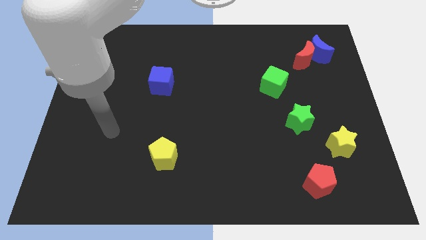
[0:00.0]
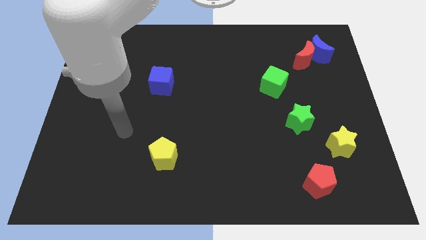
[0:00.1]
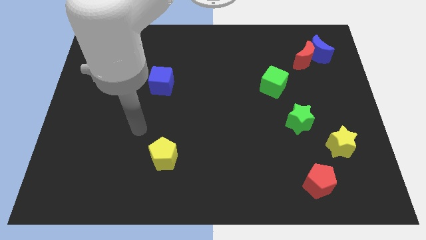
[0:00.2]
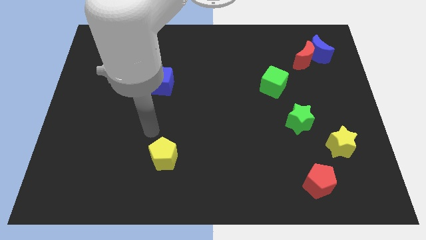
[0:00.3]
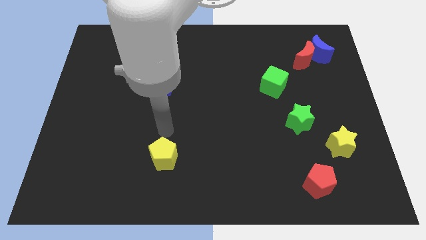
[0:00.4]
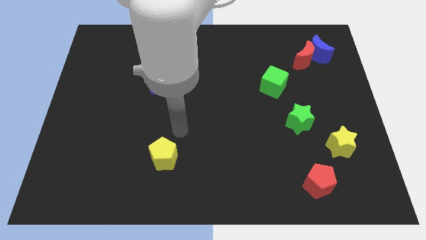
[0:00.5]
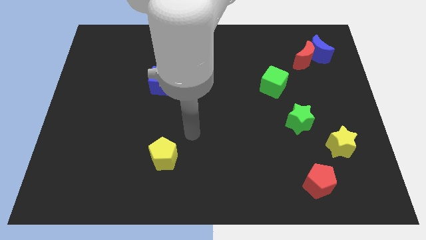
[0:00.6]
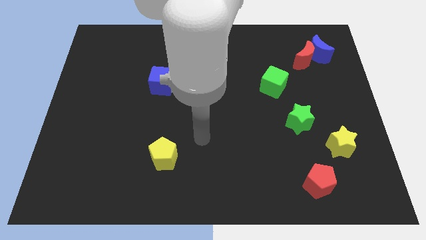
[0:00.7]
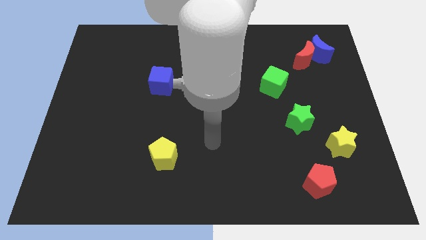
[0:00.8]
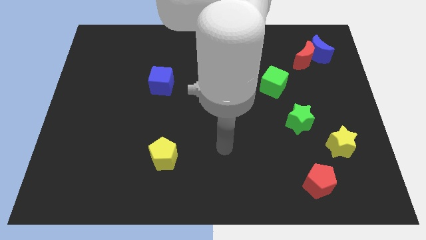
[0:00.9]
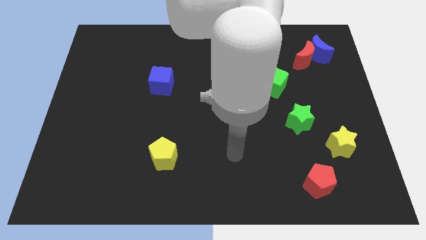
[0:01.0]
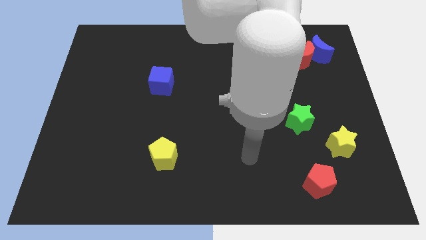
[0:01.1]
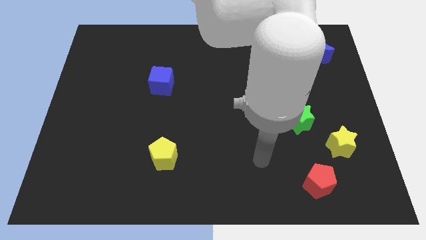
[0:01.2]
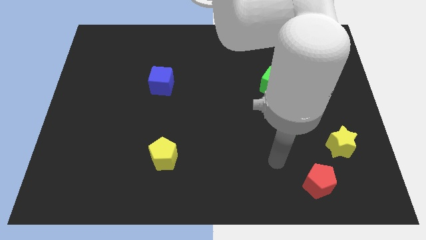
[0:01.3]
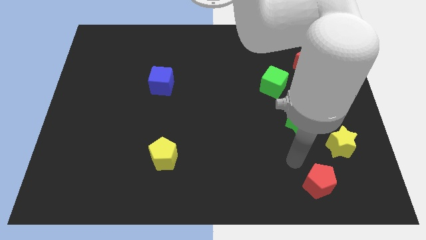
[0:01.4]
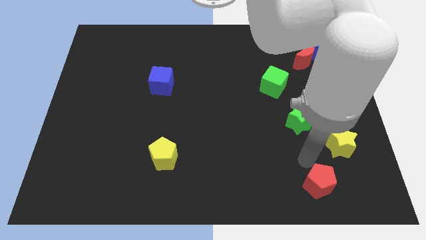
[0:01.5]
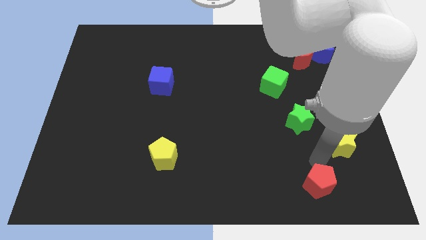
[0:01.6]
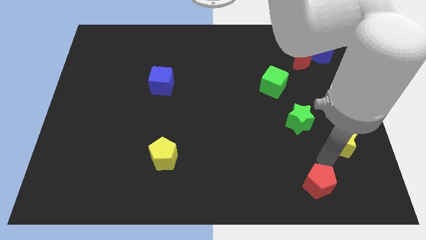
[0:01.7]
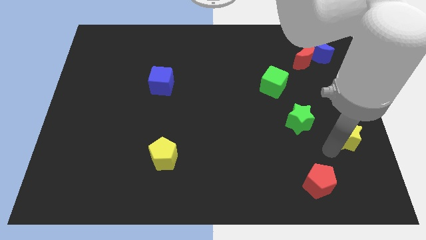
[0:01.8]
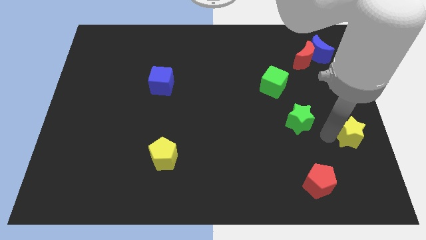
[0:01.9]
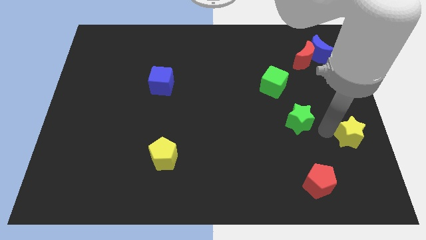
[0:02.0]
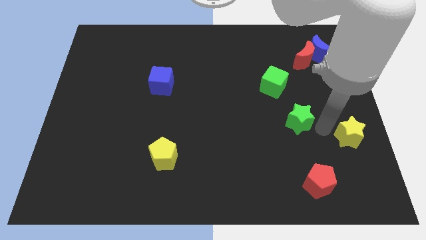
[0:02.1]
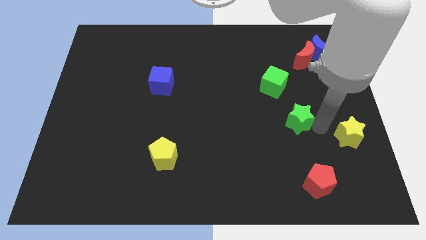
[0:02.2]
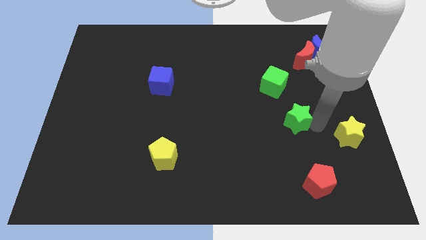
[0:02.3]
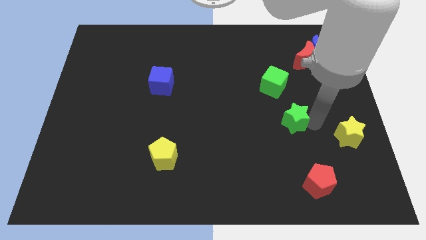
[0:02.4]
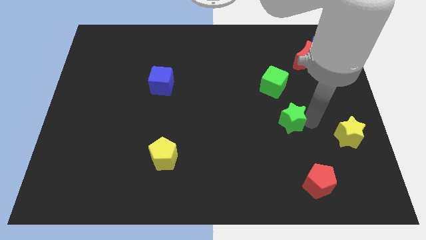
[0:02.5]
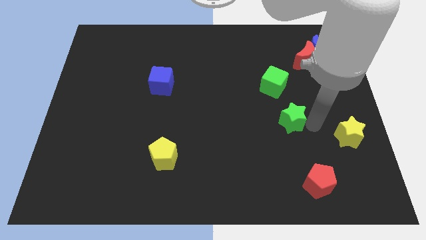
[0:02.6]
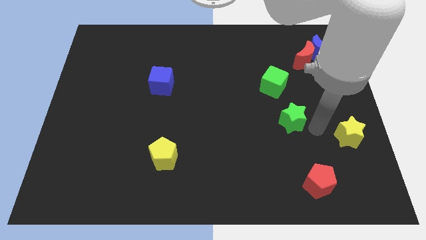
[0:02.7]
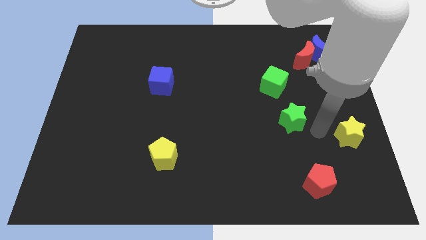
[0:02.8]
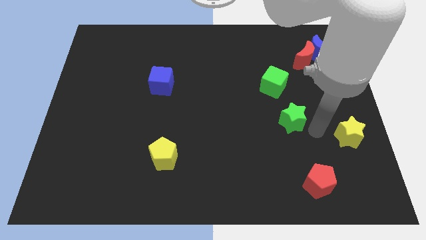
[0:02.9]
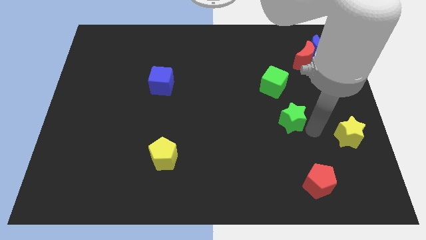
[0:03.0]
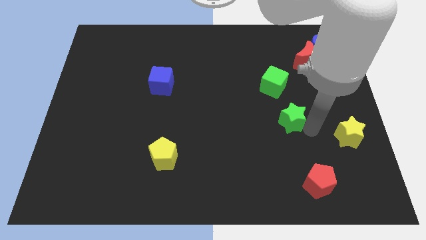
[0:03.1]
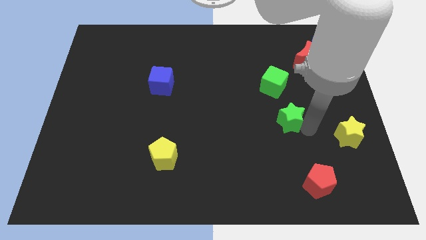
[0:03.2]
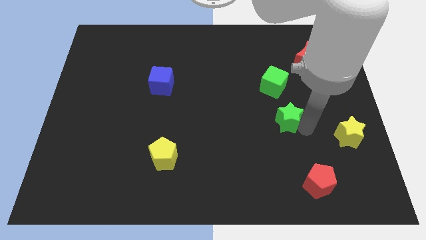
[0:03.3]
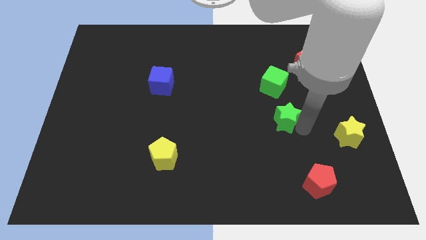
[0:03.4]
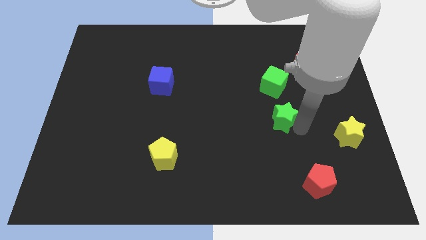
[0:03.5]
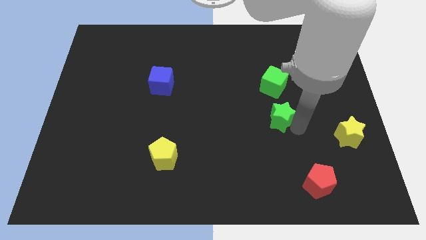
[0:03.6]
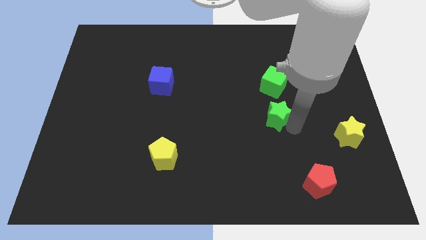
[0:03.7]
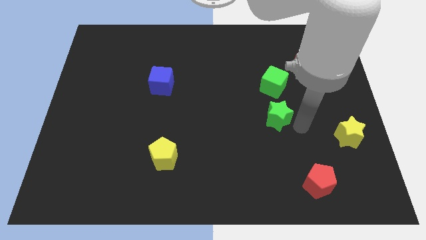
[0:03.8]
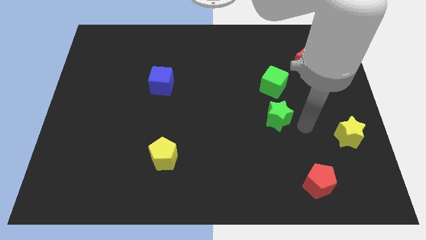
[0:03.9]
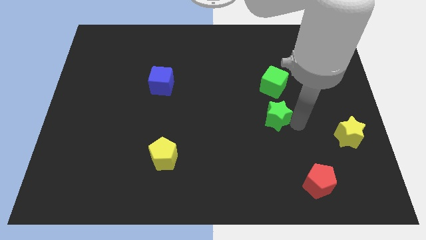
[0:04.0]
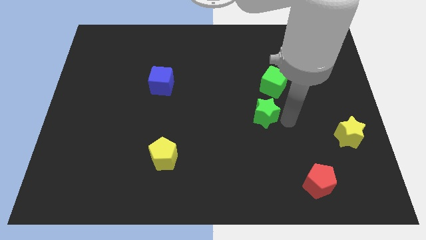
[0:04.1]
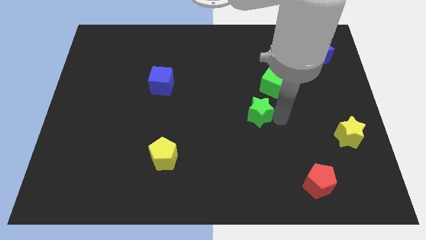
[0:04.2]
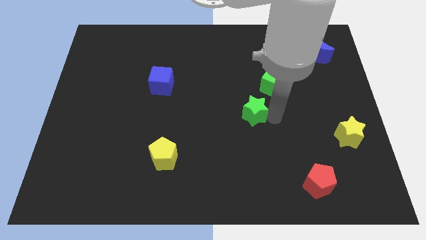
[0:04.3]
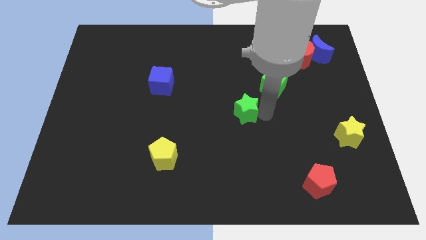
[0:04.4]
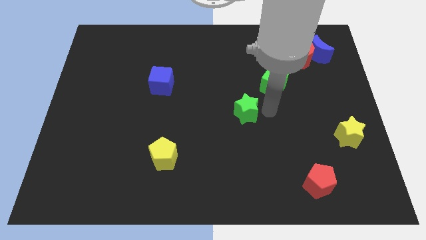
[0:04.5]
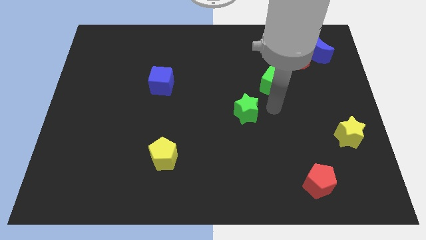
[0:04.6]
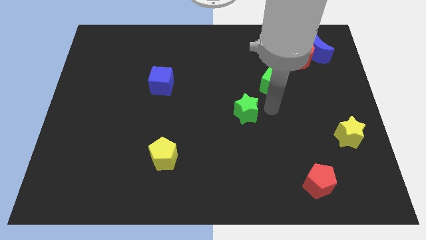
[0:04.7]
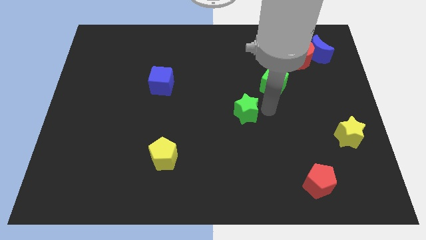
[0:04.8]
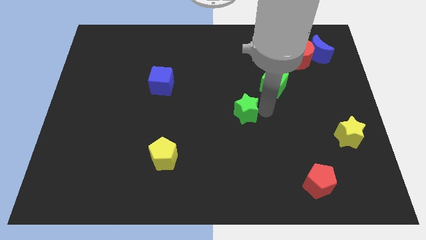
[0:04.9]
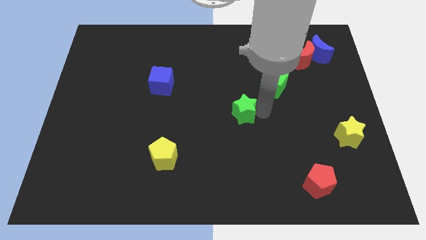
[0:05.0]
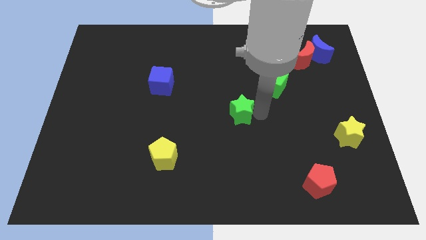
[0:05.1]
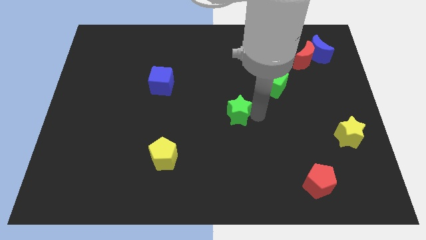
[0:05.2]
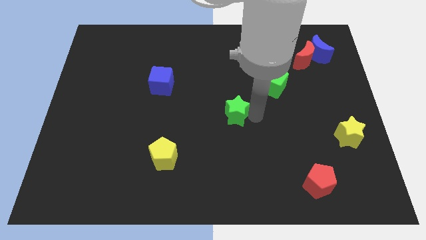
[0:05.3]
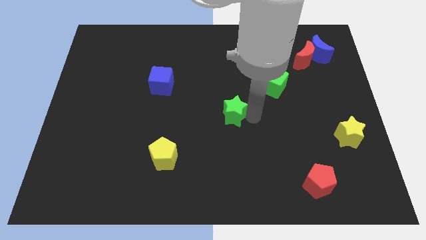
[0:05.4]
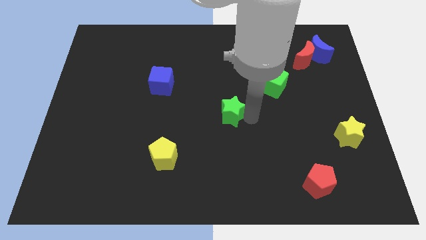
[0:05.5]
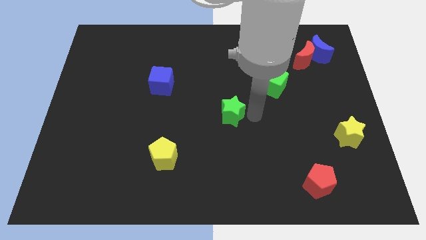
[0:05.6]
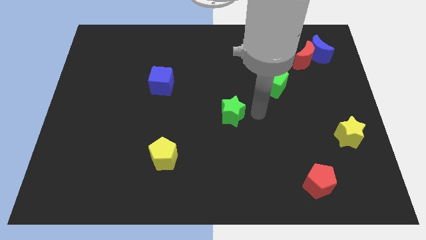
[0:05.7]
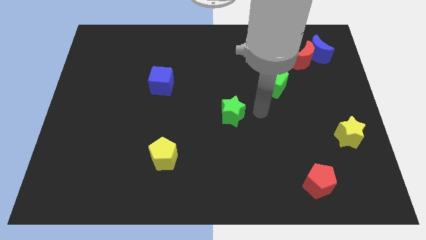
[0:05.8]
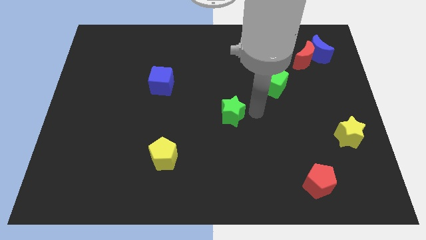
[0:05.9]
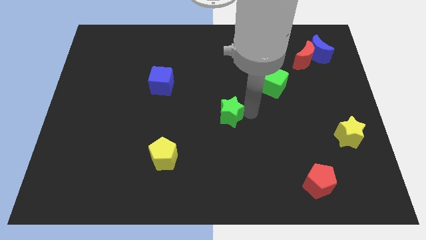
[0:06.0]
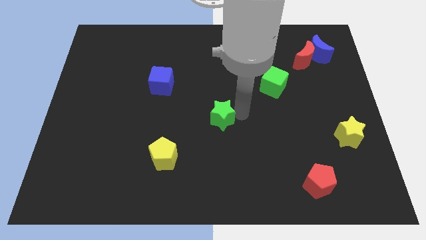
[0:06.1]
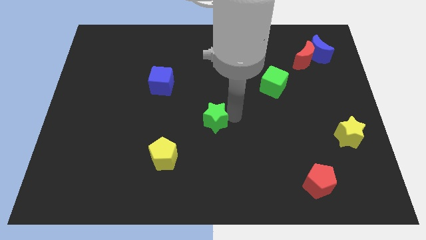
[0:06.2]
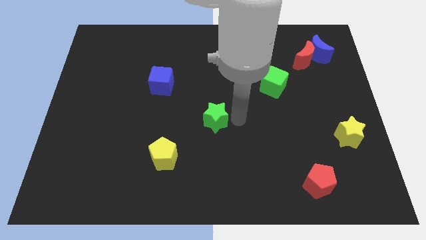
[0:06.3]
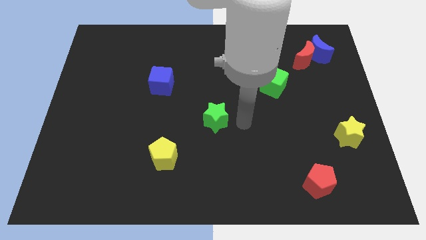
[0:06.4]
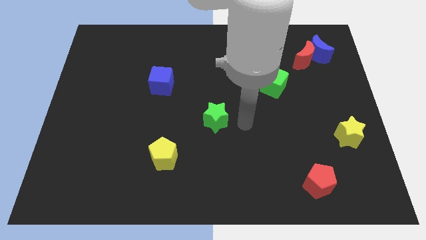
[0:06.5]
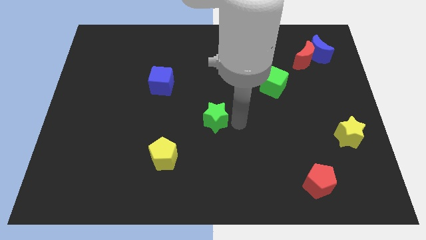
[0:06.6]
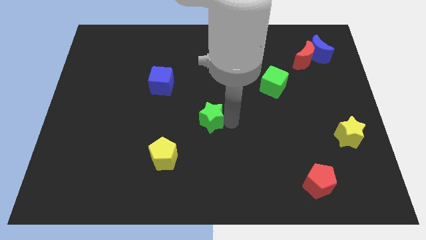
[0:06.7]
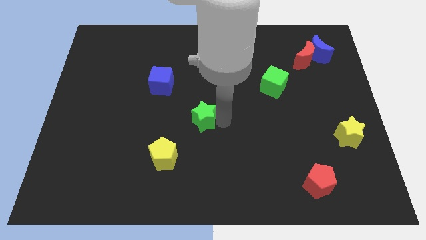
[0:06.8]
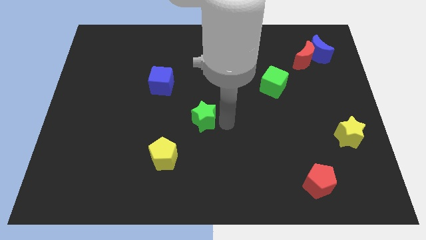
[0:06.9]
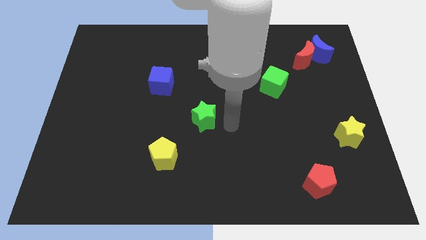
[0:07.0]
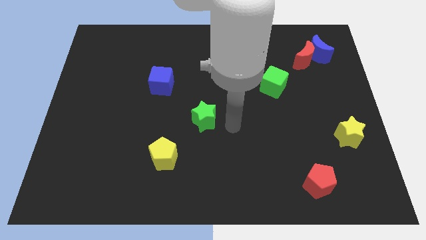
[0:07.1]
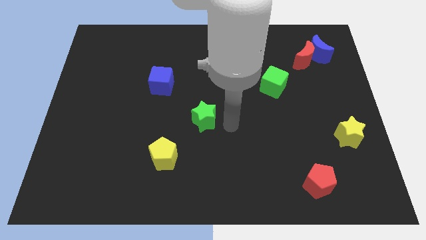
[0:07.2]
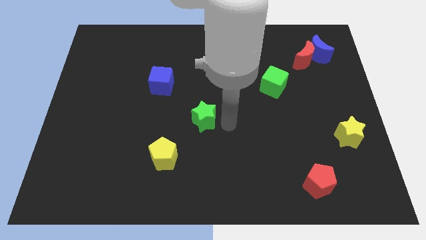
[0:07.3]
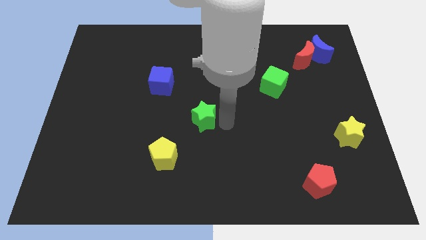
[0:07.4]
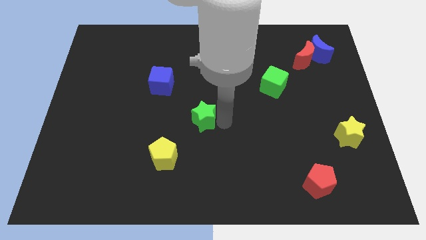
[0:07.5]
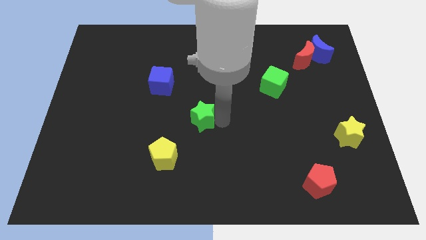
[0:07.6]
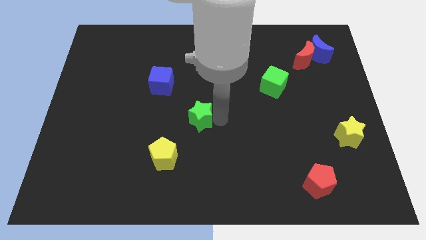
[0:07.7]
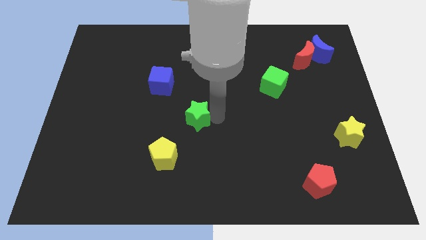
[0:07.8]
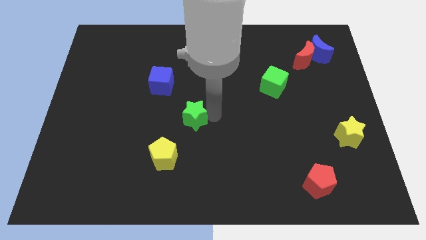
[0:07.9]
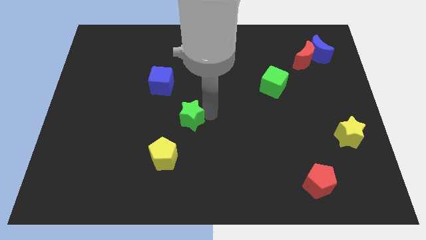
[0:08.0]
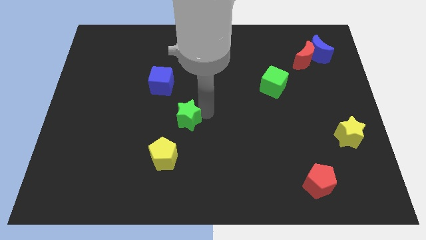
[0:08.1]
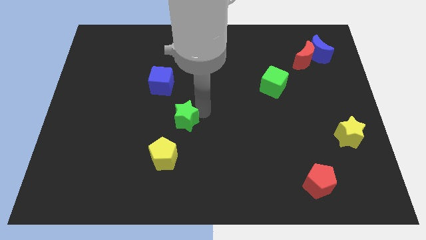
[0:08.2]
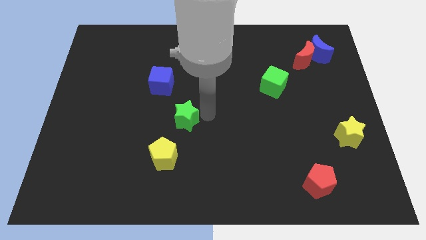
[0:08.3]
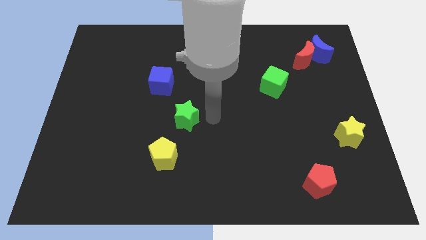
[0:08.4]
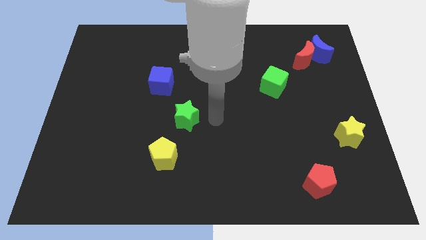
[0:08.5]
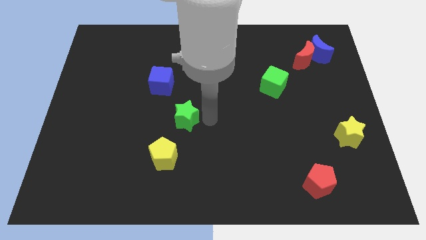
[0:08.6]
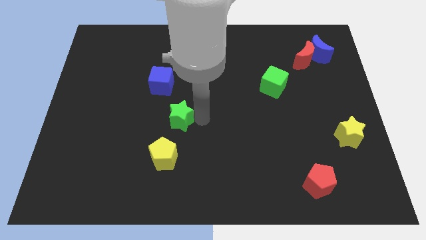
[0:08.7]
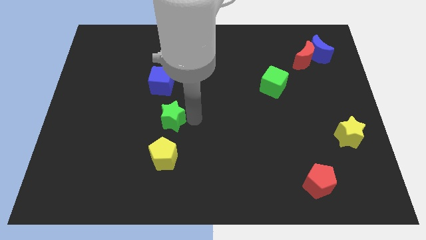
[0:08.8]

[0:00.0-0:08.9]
push the green star to the bottom of the blue cube
